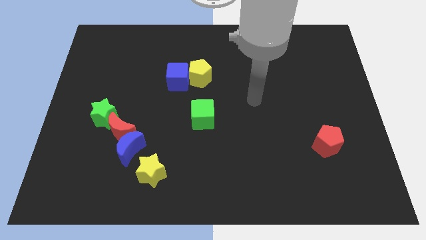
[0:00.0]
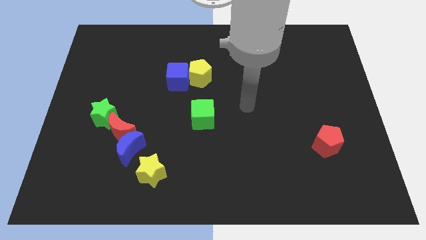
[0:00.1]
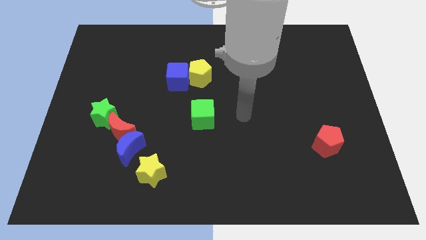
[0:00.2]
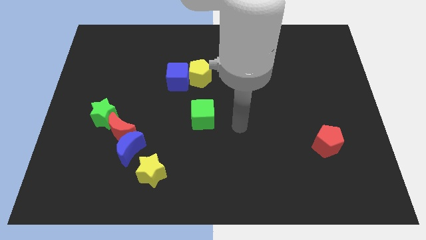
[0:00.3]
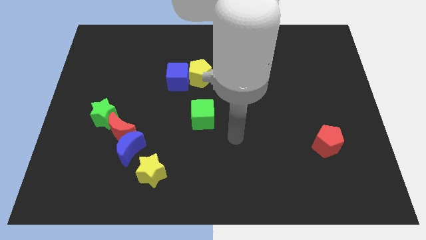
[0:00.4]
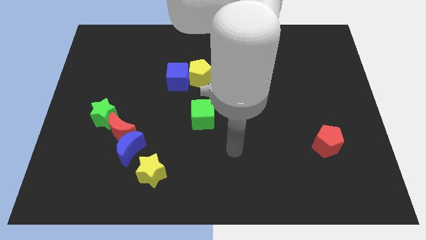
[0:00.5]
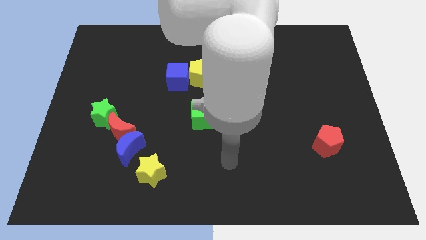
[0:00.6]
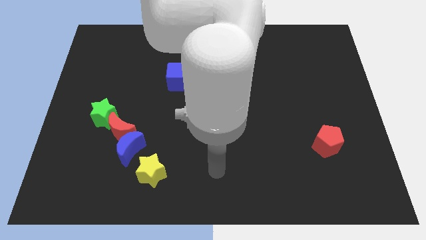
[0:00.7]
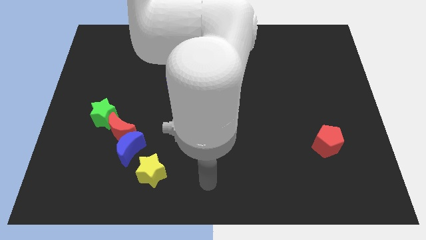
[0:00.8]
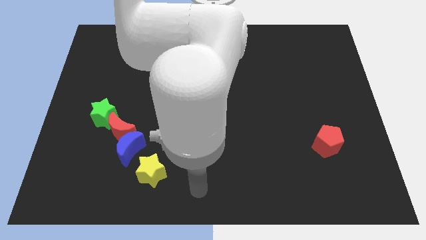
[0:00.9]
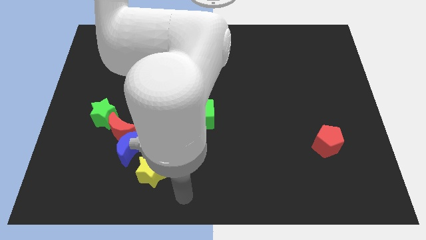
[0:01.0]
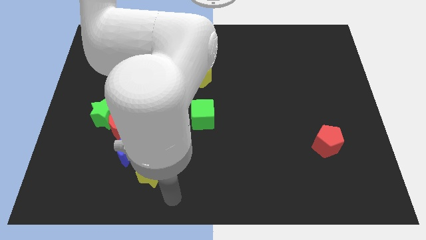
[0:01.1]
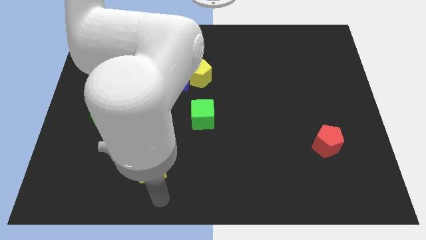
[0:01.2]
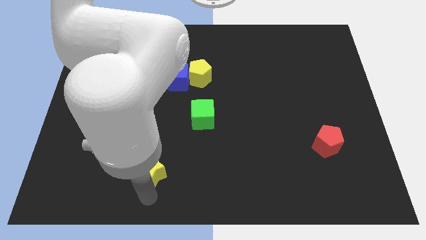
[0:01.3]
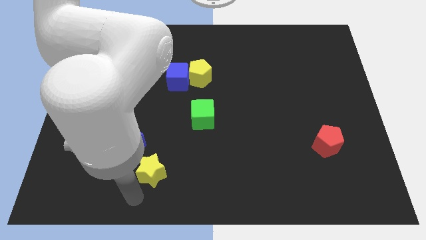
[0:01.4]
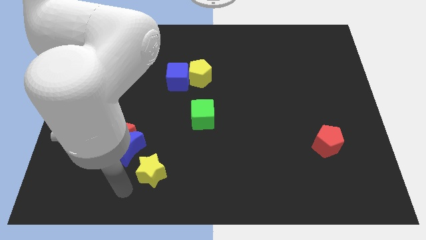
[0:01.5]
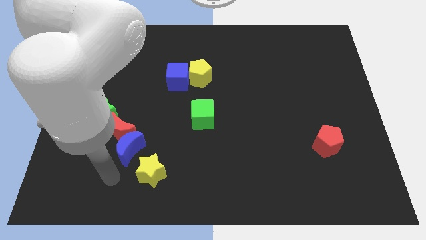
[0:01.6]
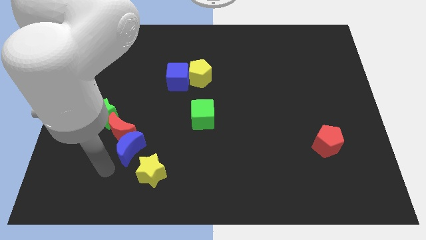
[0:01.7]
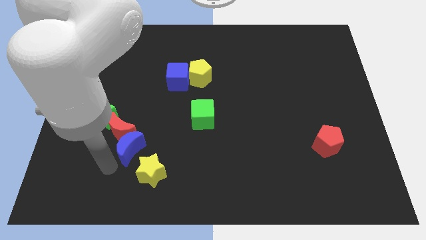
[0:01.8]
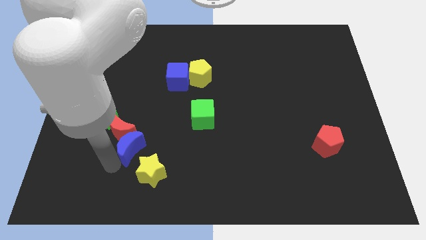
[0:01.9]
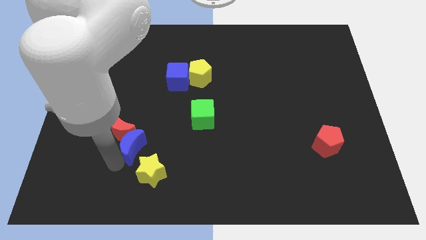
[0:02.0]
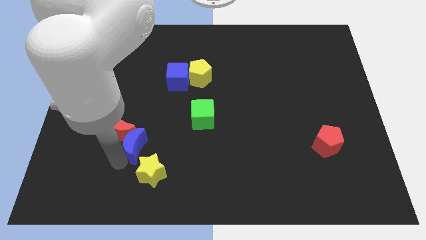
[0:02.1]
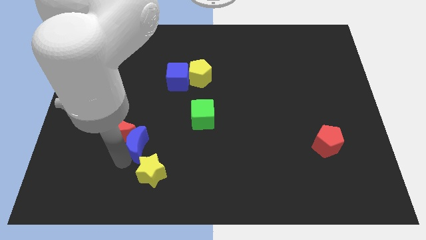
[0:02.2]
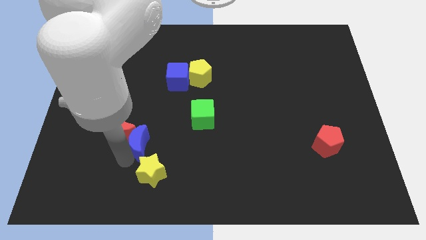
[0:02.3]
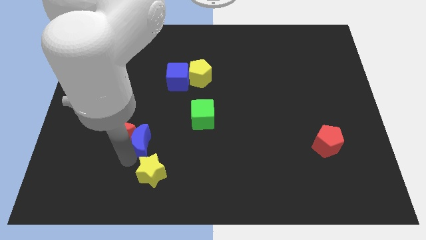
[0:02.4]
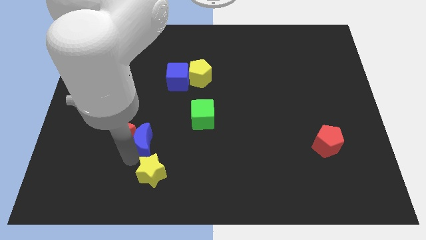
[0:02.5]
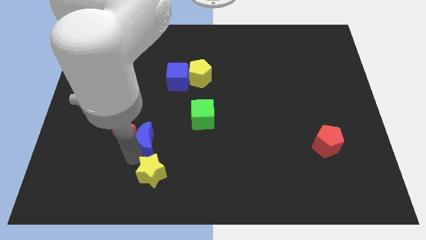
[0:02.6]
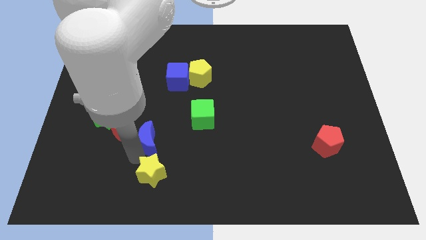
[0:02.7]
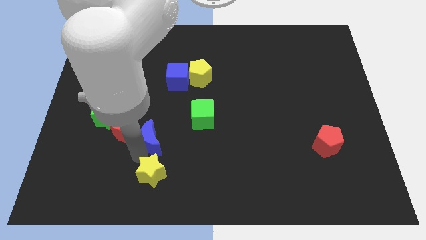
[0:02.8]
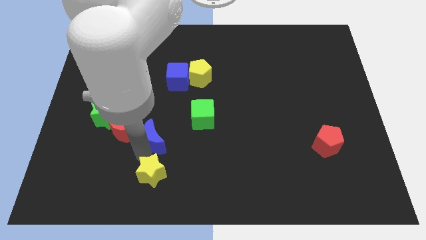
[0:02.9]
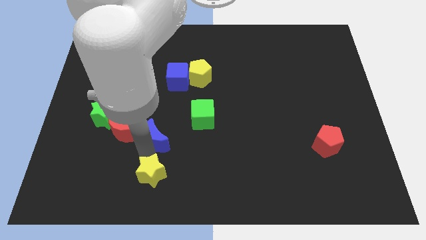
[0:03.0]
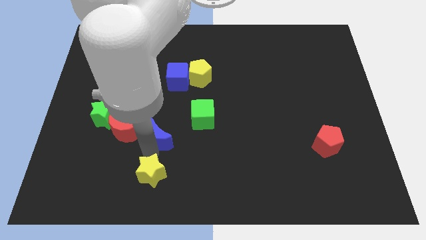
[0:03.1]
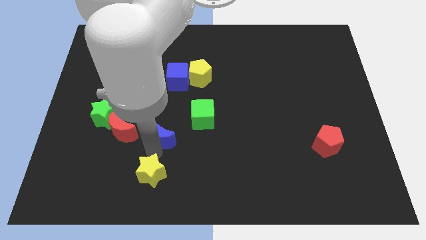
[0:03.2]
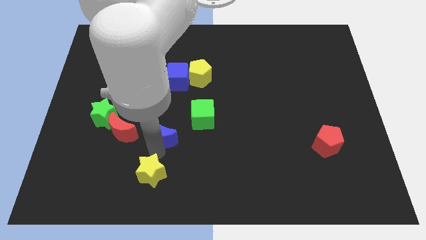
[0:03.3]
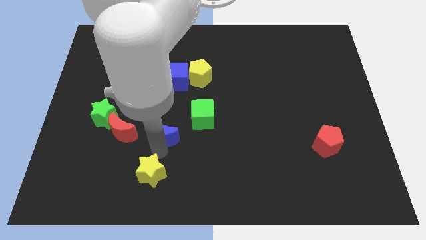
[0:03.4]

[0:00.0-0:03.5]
slide the blue moon up and right a little

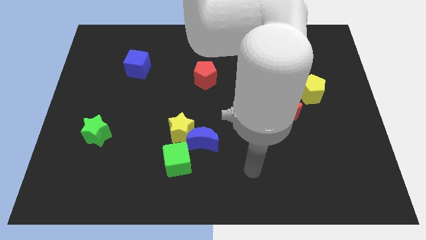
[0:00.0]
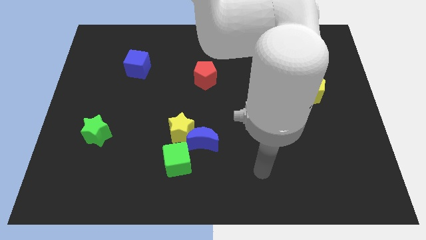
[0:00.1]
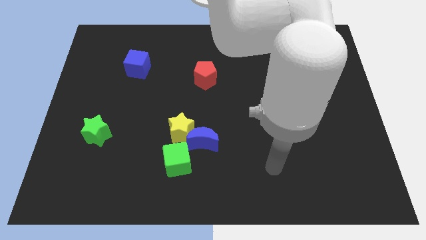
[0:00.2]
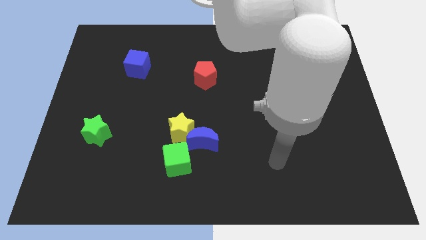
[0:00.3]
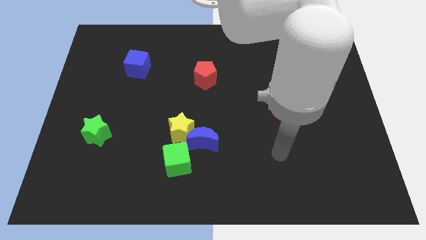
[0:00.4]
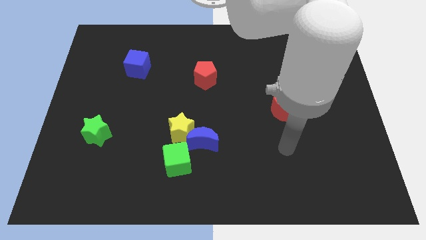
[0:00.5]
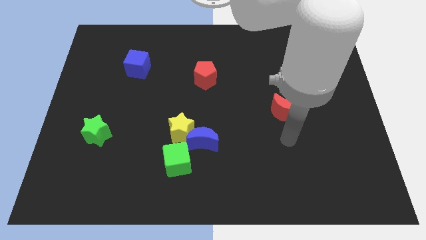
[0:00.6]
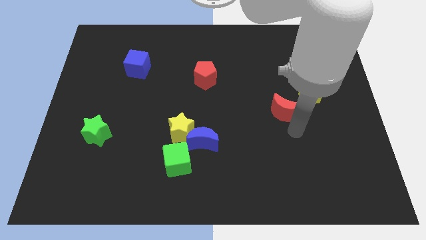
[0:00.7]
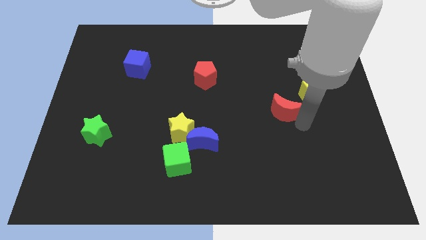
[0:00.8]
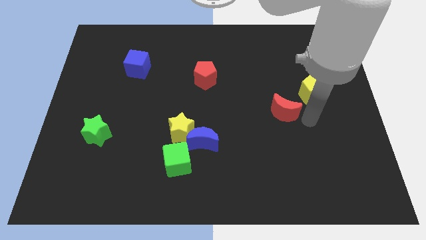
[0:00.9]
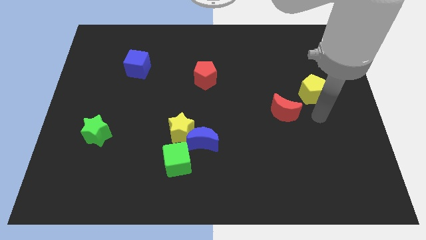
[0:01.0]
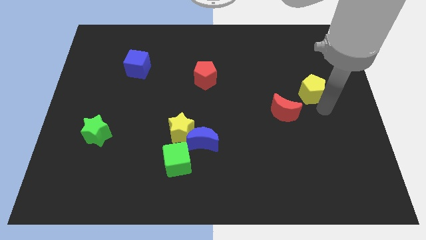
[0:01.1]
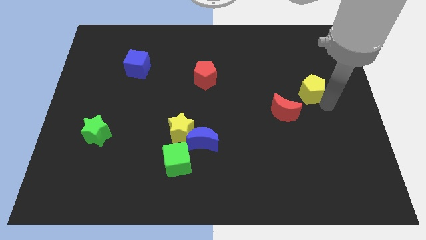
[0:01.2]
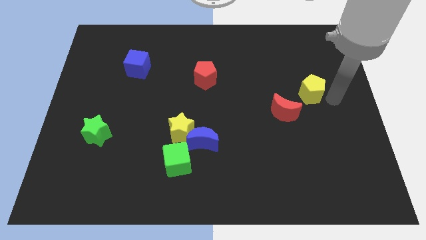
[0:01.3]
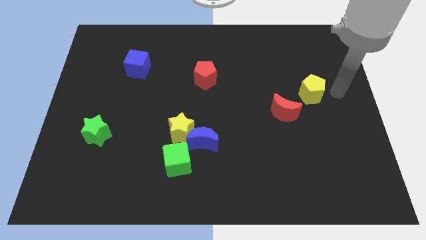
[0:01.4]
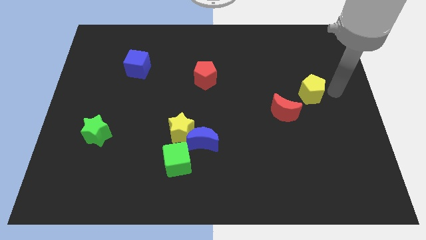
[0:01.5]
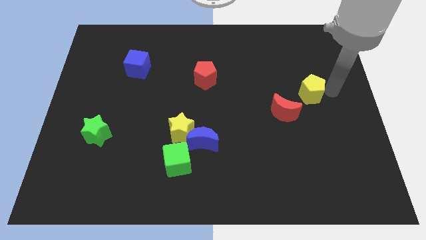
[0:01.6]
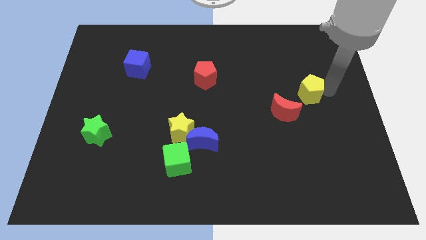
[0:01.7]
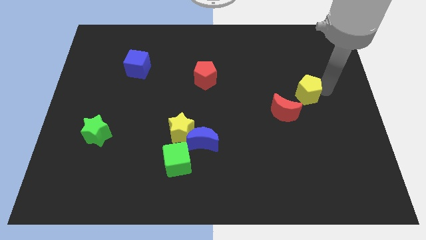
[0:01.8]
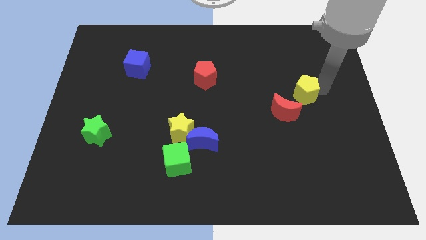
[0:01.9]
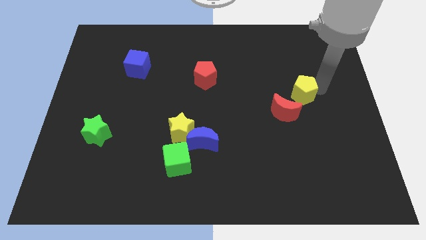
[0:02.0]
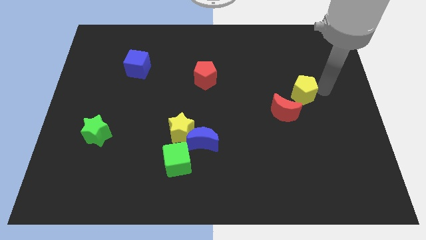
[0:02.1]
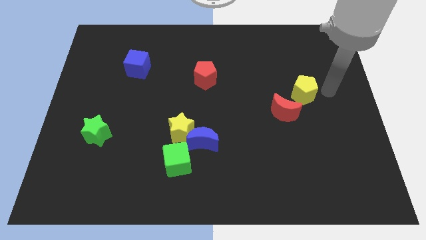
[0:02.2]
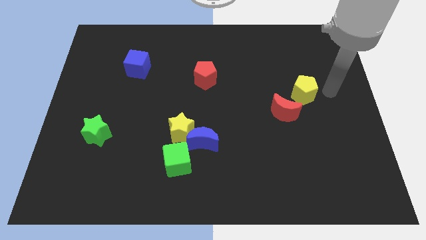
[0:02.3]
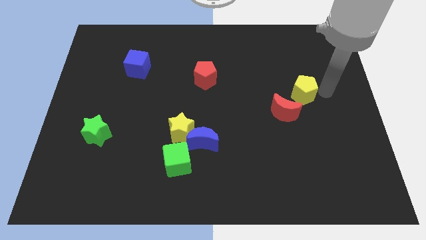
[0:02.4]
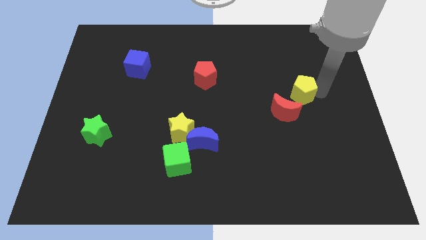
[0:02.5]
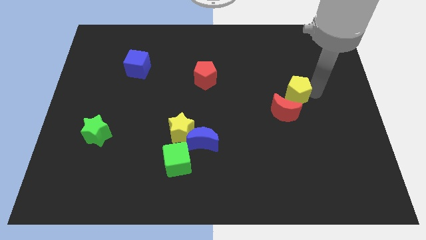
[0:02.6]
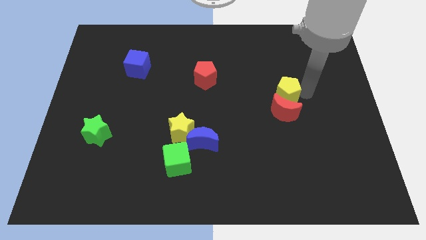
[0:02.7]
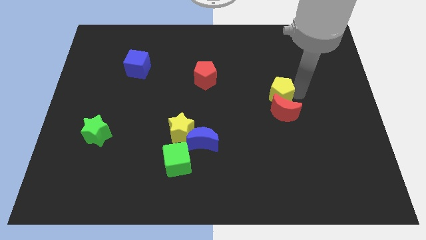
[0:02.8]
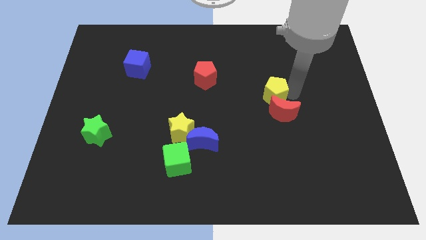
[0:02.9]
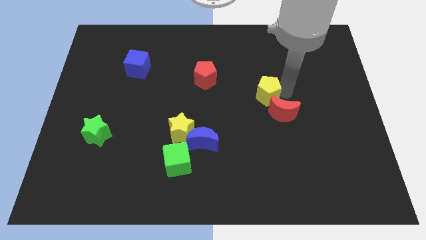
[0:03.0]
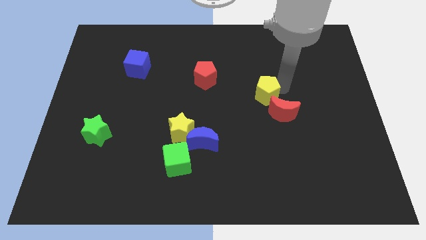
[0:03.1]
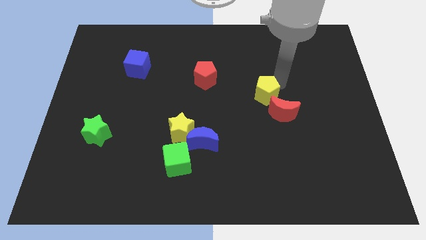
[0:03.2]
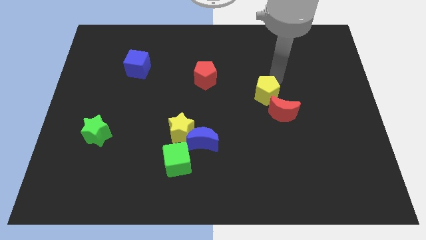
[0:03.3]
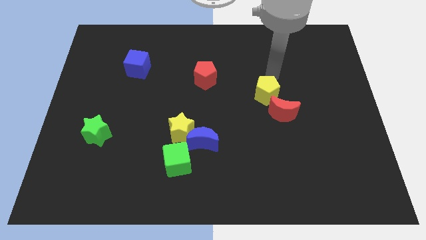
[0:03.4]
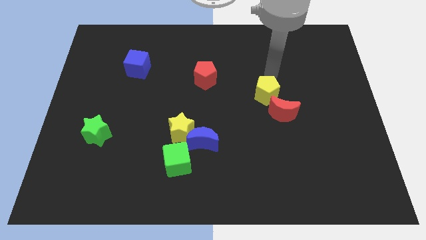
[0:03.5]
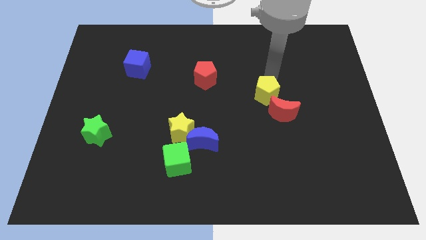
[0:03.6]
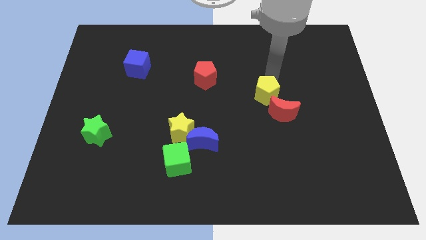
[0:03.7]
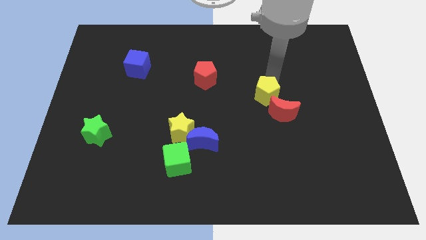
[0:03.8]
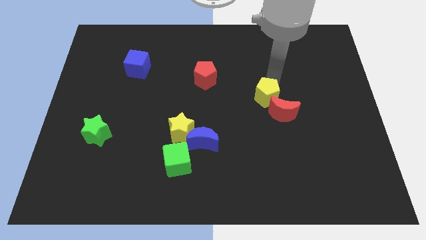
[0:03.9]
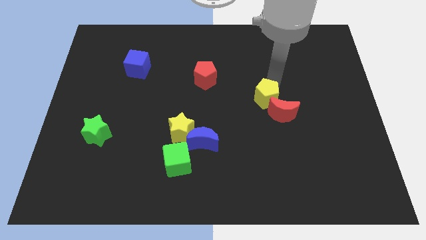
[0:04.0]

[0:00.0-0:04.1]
push the yellow pentagon down and to the left diagonally slightly

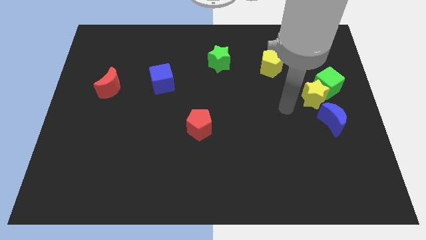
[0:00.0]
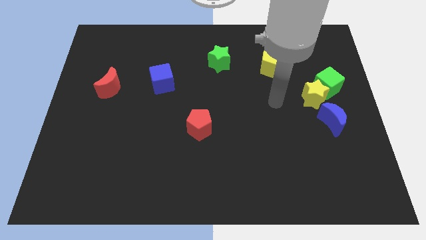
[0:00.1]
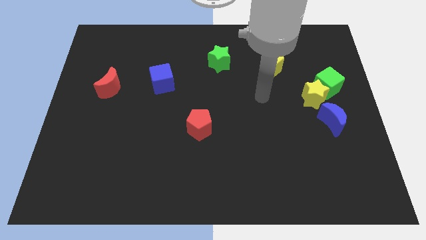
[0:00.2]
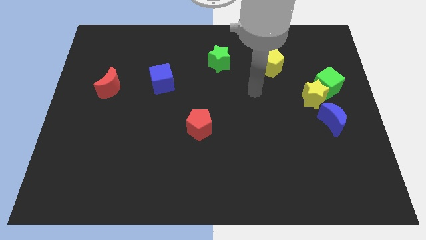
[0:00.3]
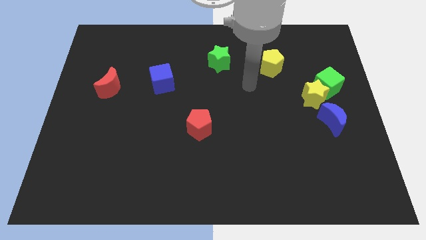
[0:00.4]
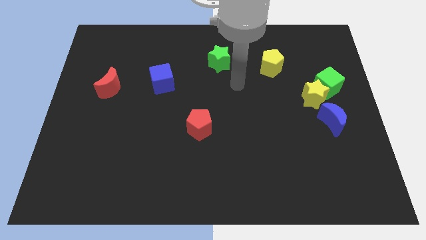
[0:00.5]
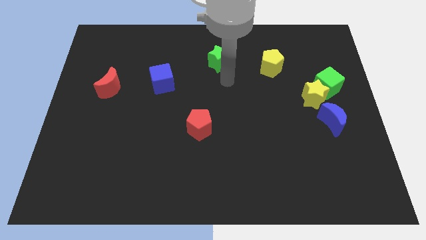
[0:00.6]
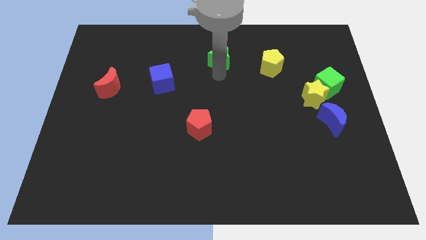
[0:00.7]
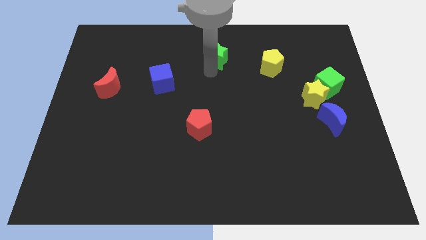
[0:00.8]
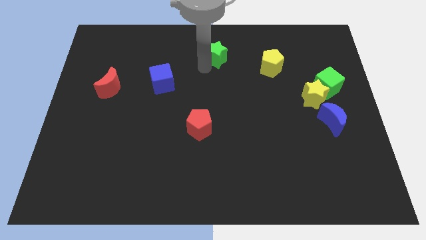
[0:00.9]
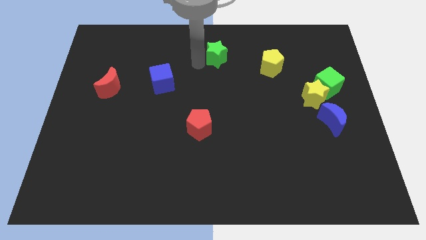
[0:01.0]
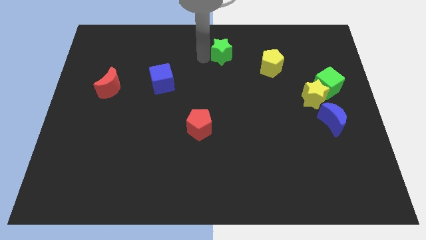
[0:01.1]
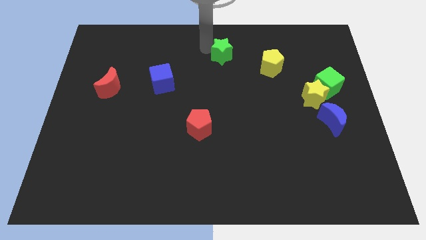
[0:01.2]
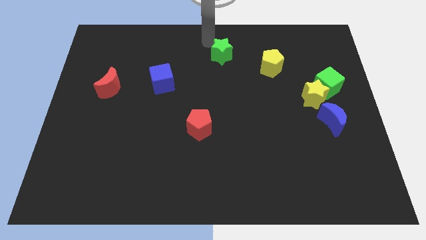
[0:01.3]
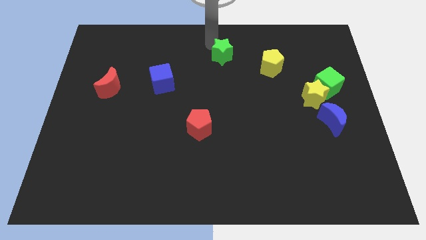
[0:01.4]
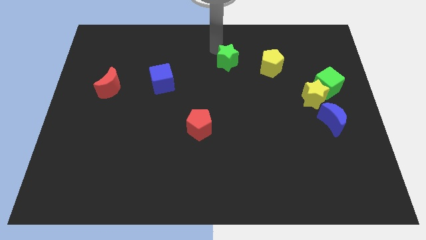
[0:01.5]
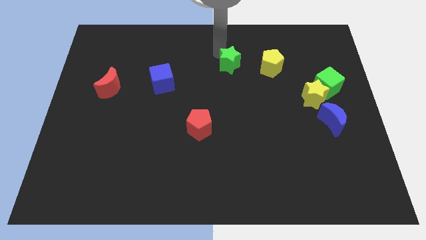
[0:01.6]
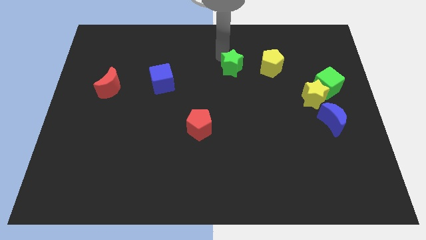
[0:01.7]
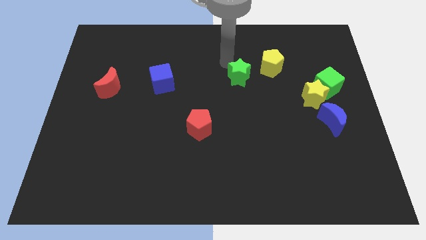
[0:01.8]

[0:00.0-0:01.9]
slightly move the green star downwards and then right
